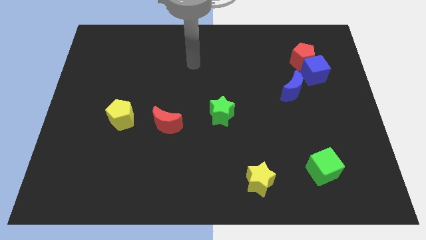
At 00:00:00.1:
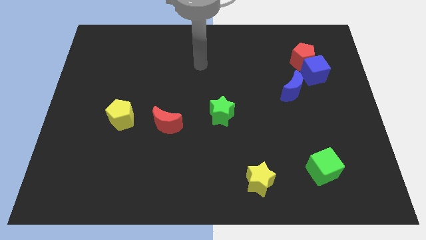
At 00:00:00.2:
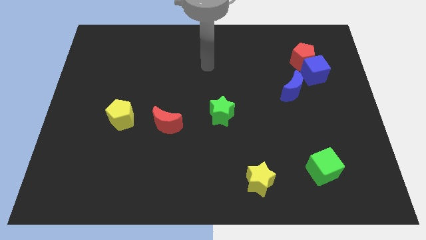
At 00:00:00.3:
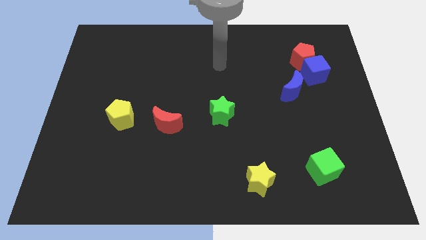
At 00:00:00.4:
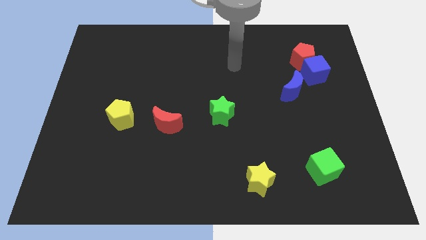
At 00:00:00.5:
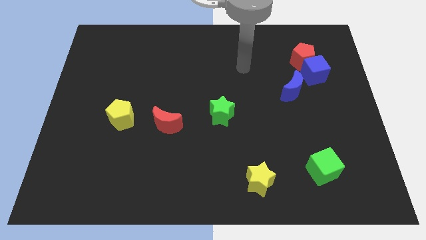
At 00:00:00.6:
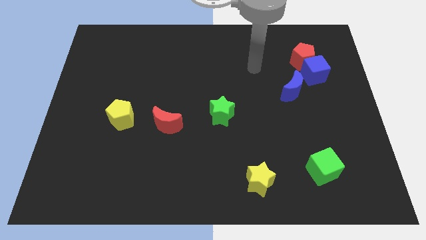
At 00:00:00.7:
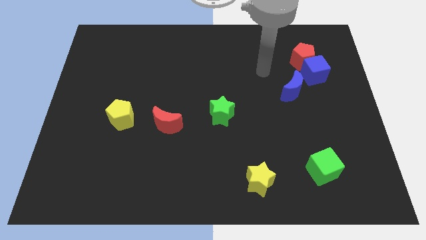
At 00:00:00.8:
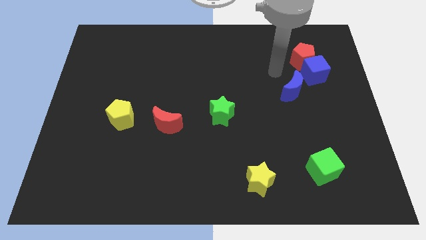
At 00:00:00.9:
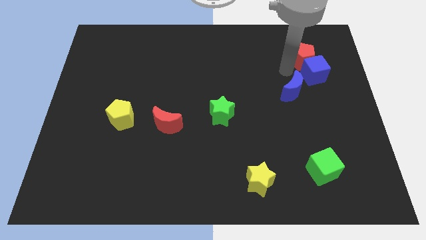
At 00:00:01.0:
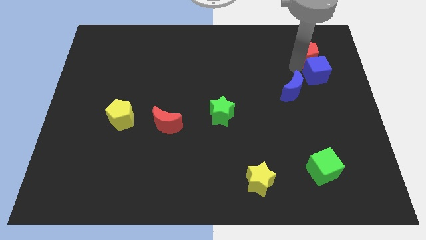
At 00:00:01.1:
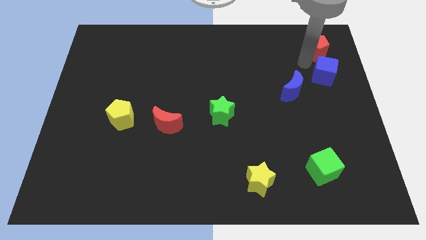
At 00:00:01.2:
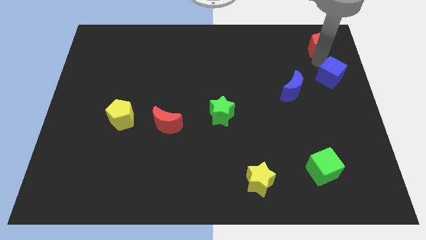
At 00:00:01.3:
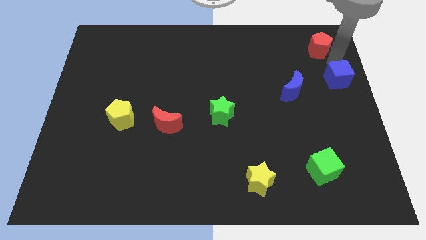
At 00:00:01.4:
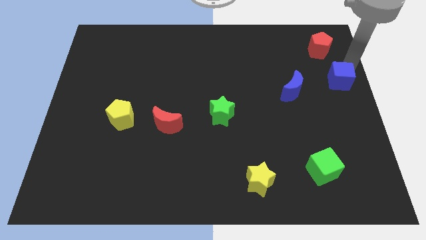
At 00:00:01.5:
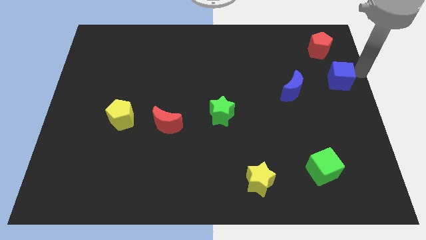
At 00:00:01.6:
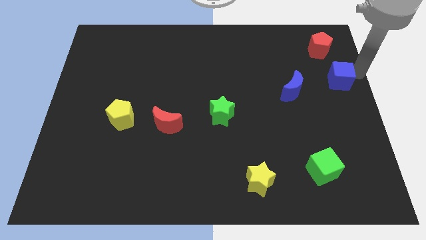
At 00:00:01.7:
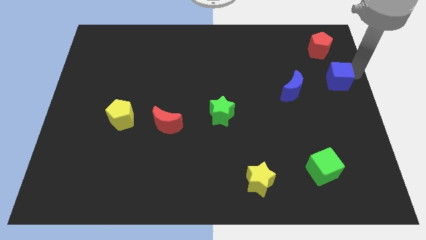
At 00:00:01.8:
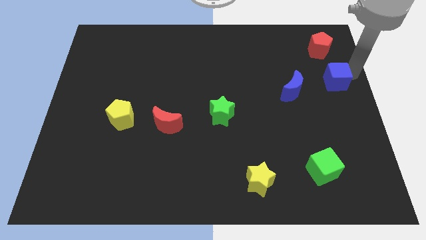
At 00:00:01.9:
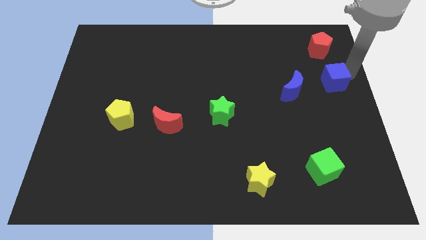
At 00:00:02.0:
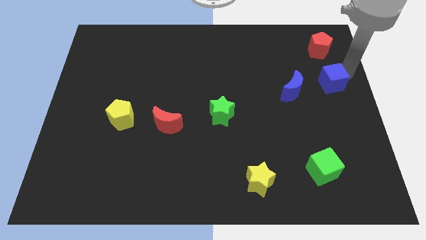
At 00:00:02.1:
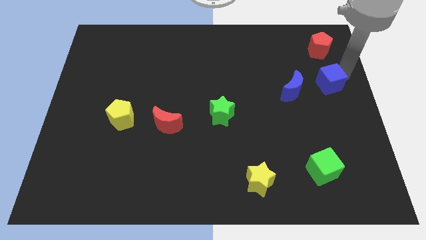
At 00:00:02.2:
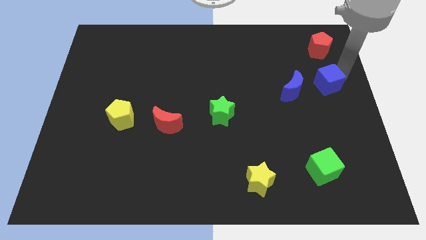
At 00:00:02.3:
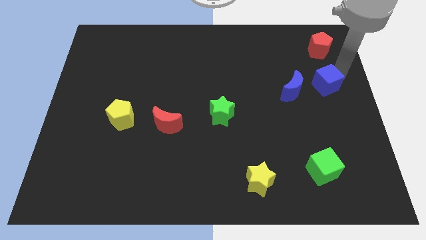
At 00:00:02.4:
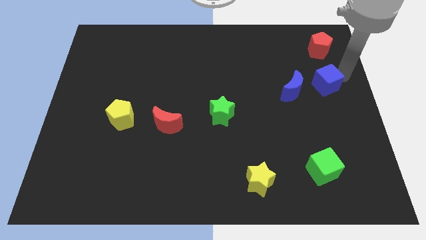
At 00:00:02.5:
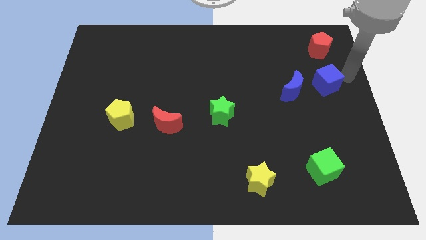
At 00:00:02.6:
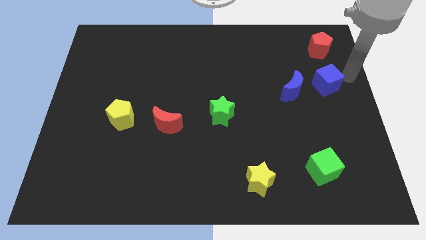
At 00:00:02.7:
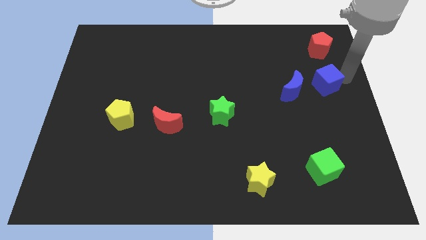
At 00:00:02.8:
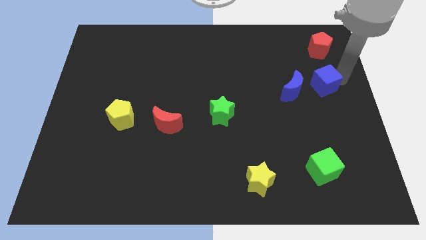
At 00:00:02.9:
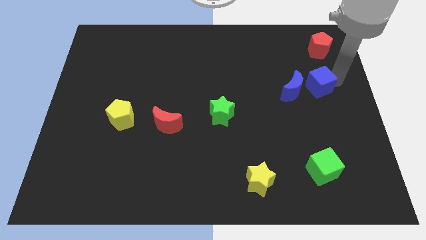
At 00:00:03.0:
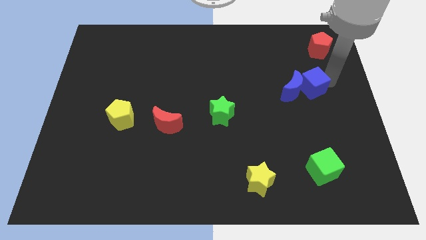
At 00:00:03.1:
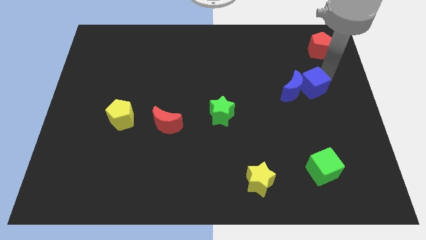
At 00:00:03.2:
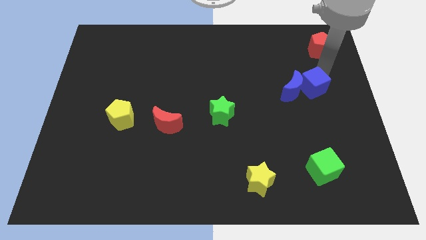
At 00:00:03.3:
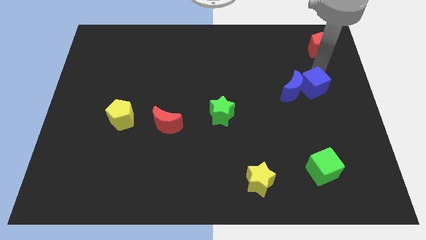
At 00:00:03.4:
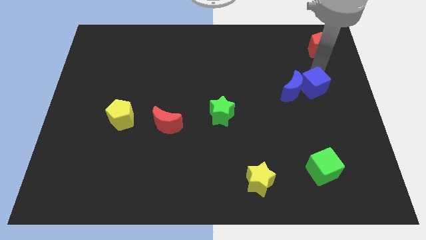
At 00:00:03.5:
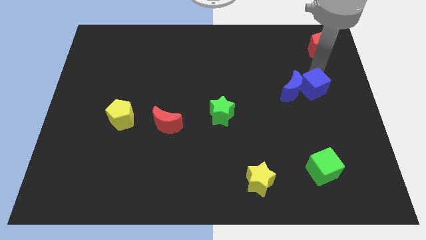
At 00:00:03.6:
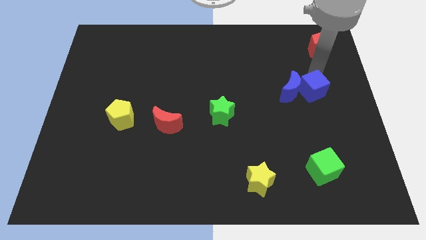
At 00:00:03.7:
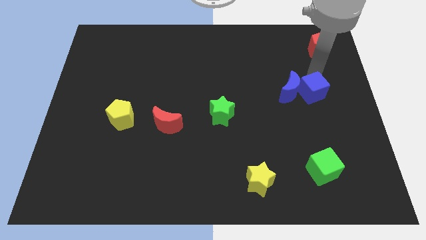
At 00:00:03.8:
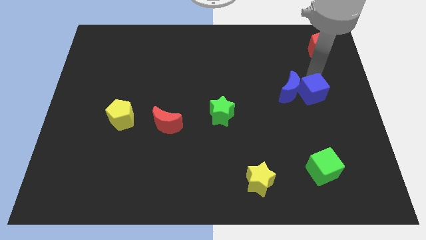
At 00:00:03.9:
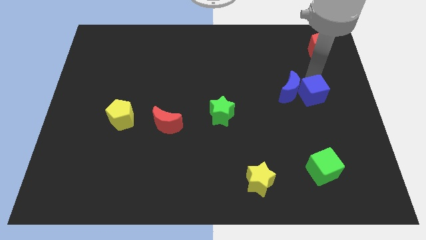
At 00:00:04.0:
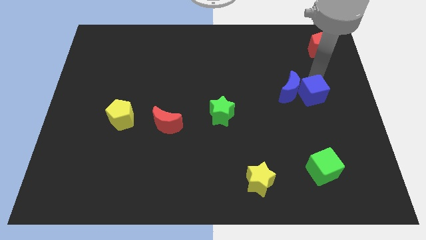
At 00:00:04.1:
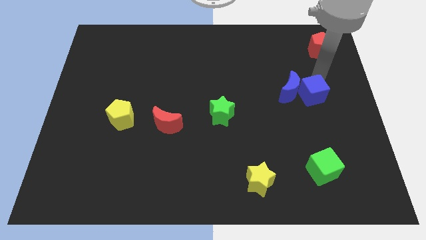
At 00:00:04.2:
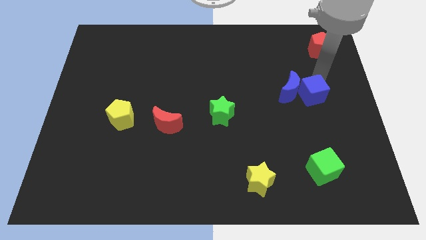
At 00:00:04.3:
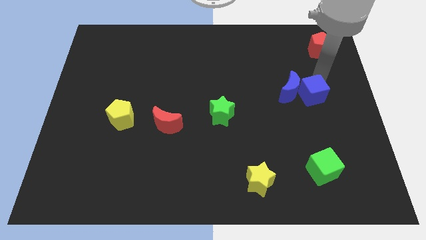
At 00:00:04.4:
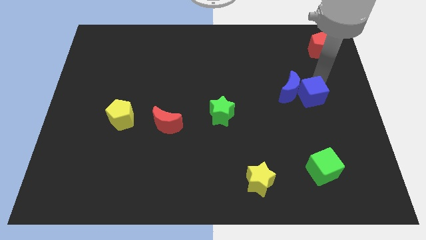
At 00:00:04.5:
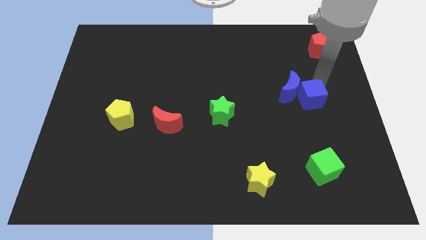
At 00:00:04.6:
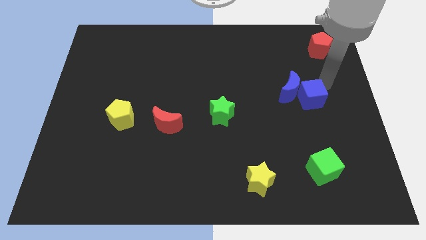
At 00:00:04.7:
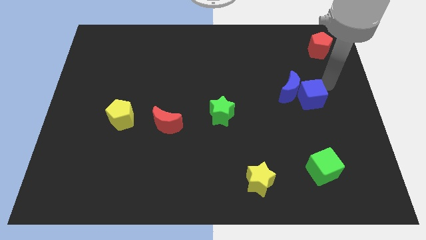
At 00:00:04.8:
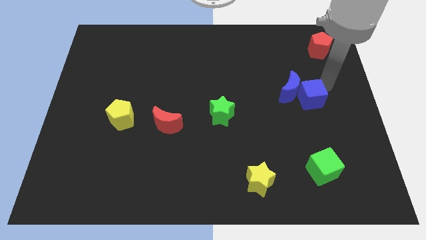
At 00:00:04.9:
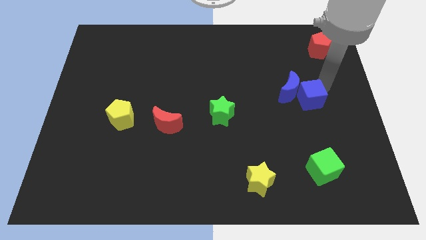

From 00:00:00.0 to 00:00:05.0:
slightly push the blue cube downwards and to the left

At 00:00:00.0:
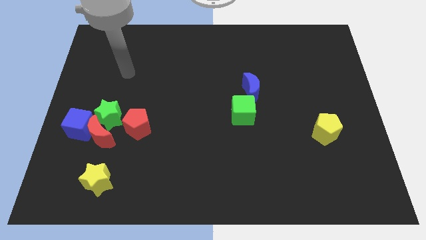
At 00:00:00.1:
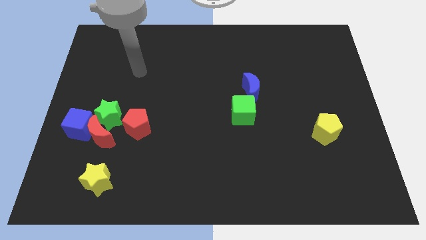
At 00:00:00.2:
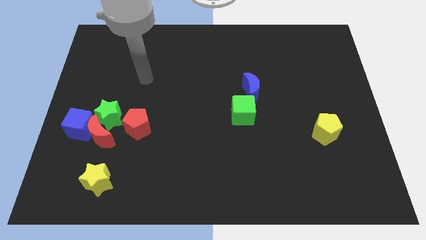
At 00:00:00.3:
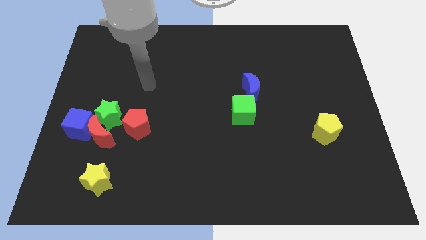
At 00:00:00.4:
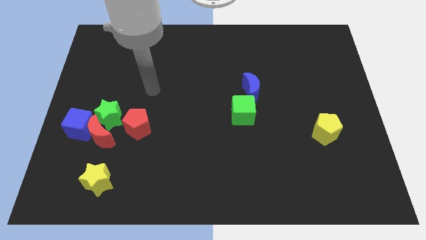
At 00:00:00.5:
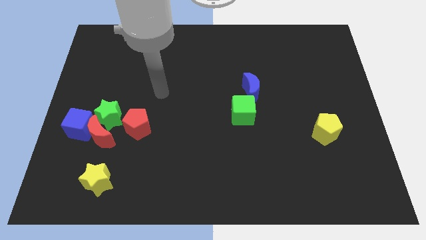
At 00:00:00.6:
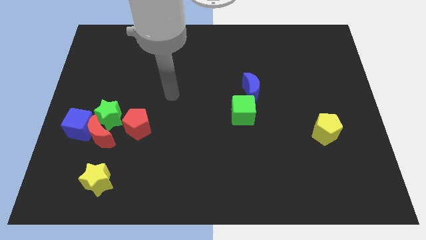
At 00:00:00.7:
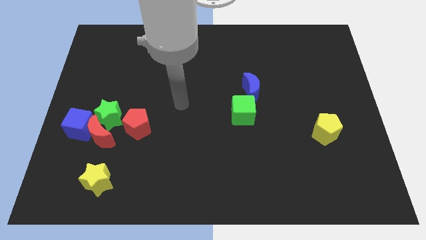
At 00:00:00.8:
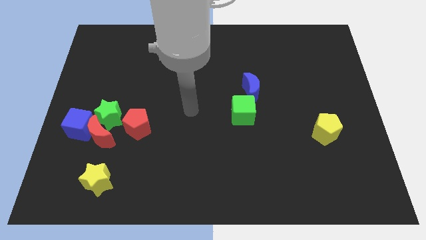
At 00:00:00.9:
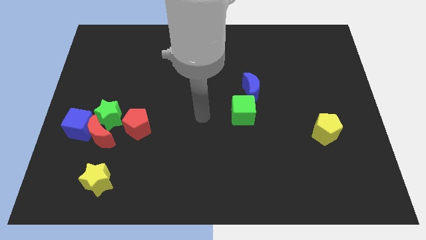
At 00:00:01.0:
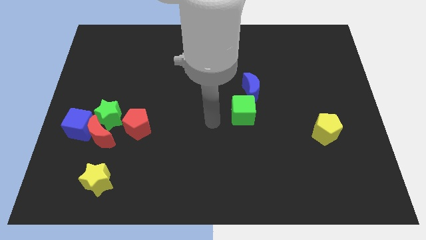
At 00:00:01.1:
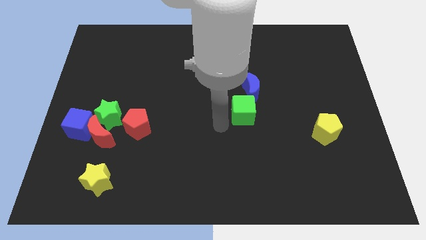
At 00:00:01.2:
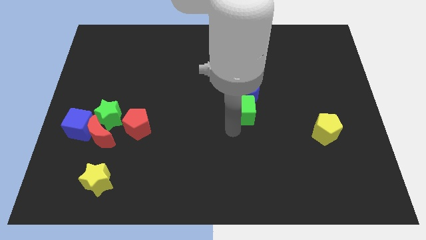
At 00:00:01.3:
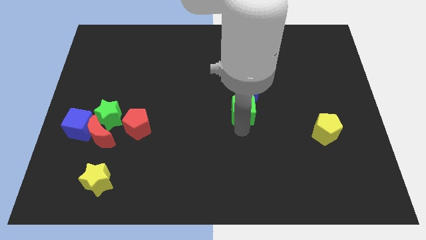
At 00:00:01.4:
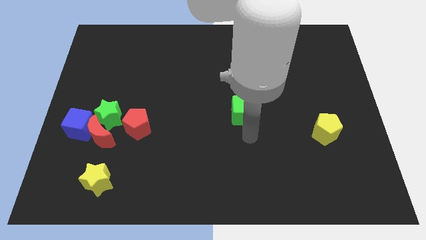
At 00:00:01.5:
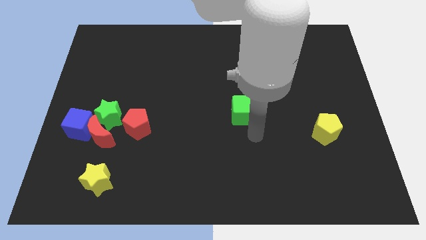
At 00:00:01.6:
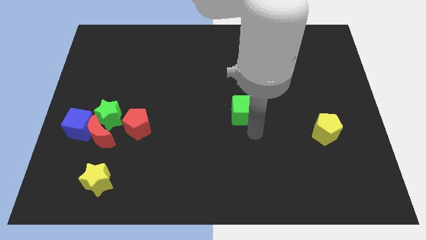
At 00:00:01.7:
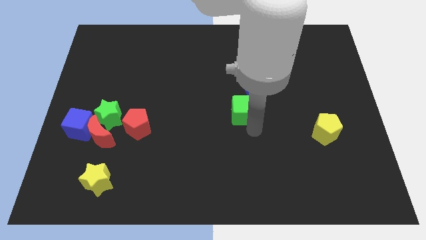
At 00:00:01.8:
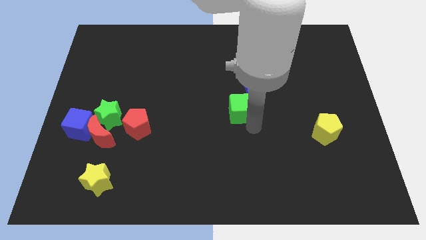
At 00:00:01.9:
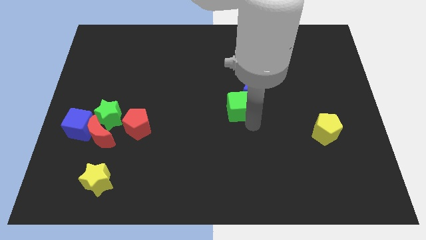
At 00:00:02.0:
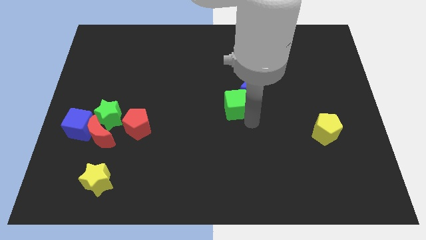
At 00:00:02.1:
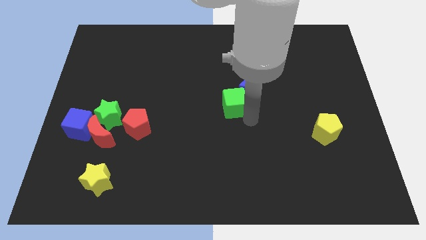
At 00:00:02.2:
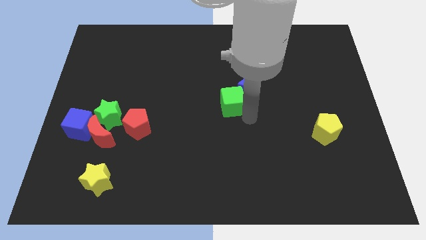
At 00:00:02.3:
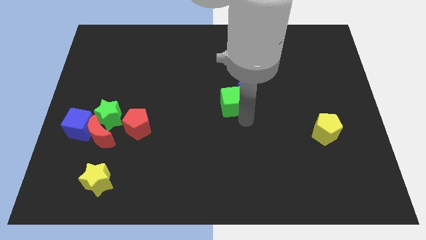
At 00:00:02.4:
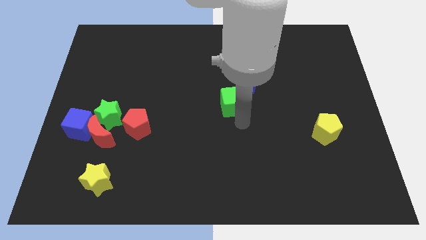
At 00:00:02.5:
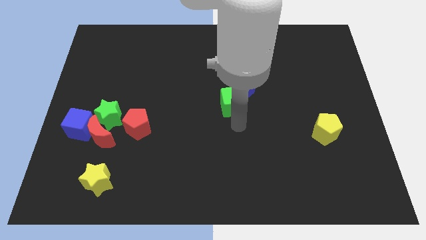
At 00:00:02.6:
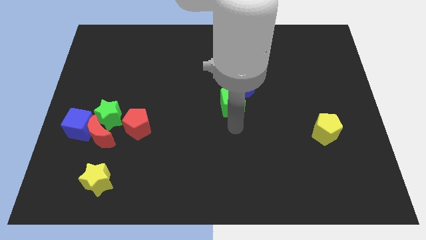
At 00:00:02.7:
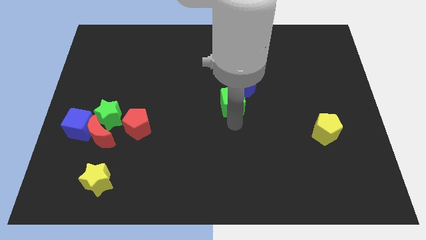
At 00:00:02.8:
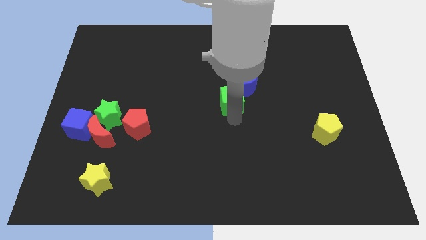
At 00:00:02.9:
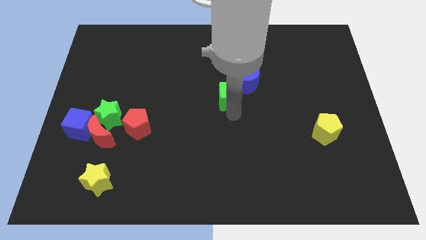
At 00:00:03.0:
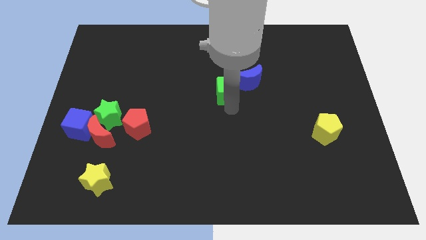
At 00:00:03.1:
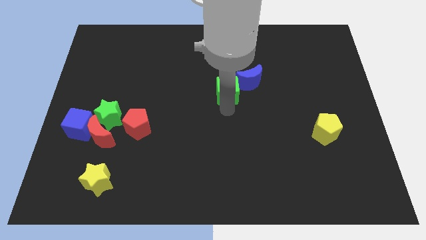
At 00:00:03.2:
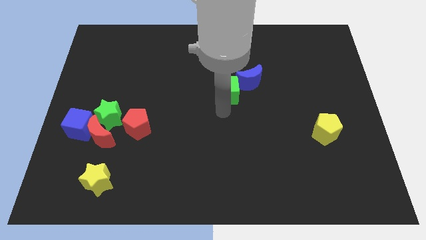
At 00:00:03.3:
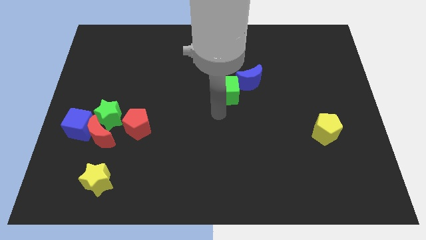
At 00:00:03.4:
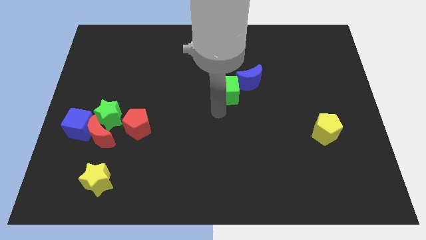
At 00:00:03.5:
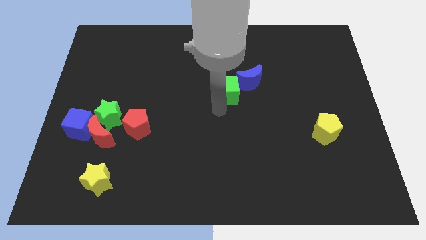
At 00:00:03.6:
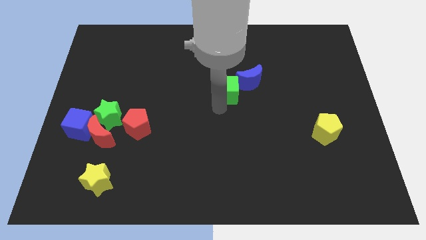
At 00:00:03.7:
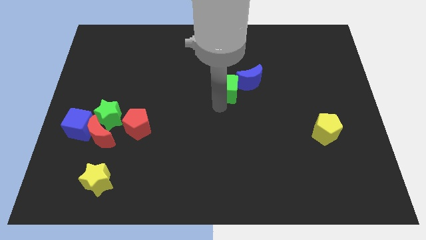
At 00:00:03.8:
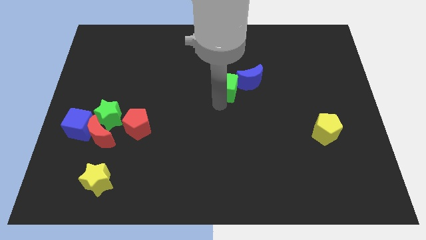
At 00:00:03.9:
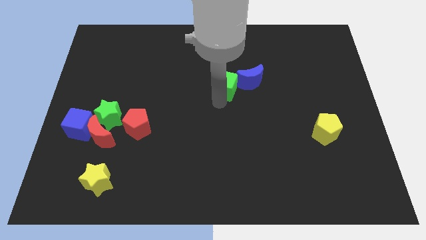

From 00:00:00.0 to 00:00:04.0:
slide the green cube upwards a bit
